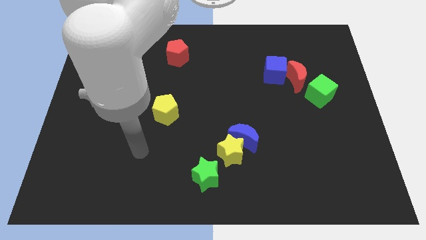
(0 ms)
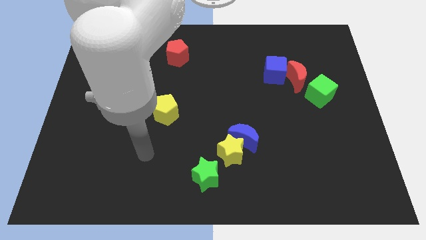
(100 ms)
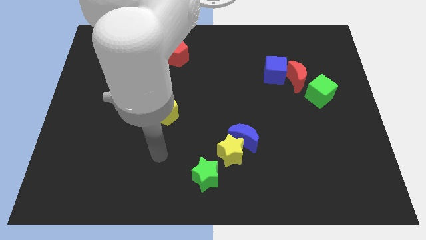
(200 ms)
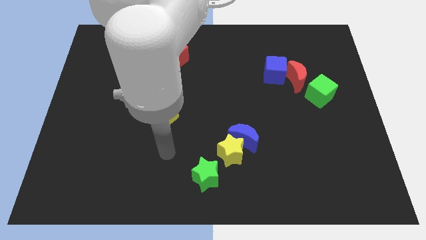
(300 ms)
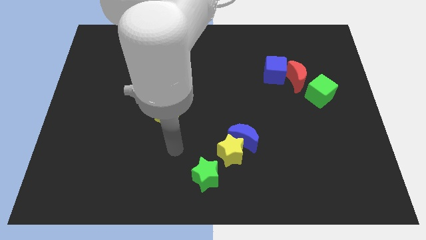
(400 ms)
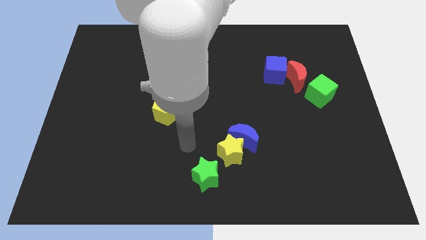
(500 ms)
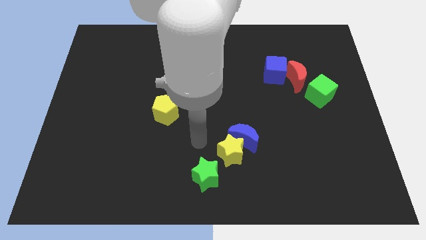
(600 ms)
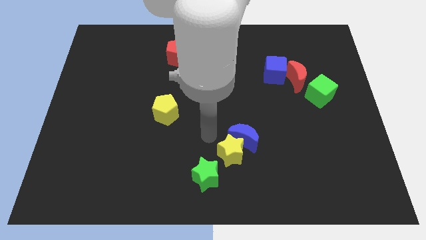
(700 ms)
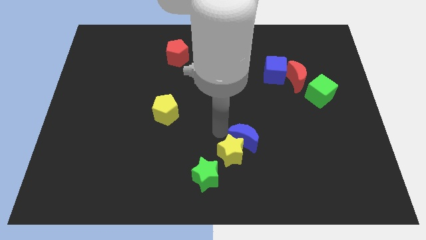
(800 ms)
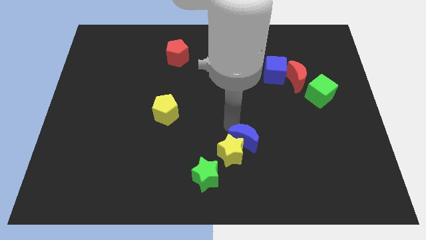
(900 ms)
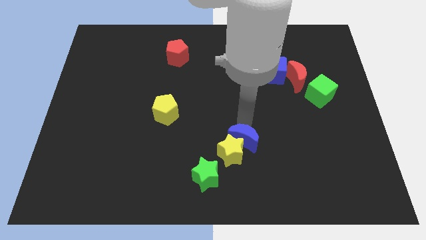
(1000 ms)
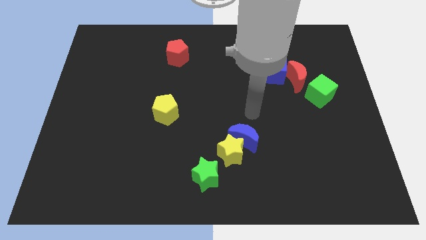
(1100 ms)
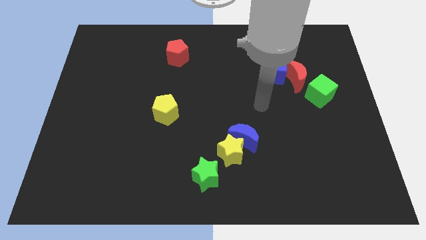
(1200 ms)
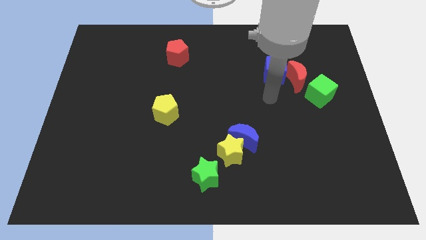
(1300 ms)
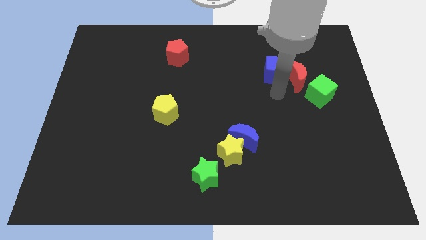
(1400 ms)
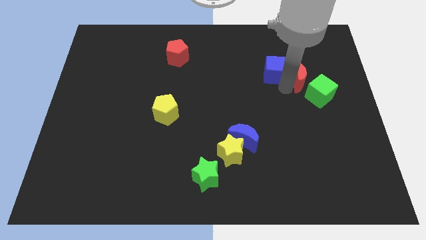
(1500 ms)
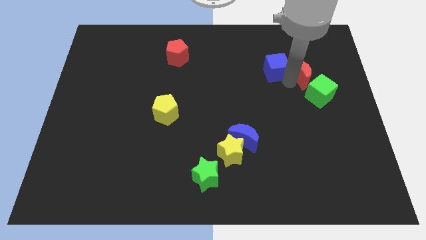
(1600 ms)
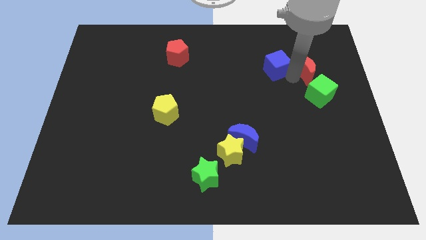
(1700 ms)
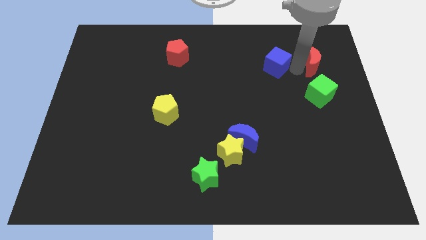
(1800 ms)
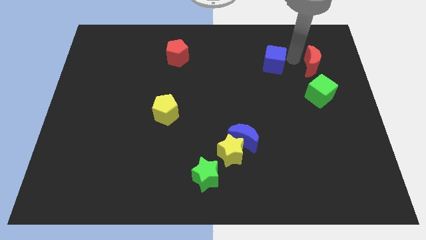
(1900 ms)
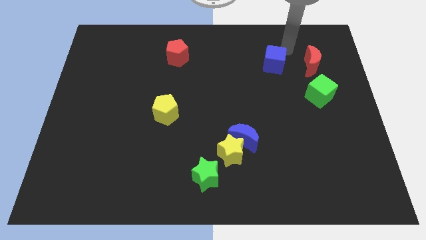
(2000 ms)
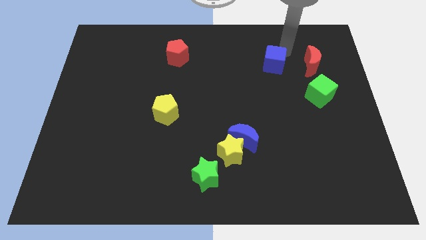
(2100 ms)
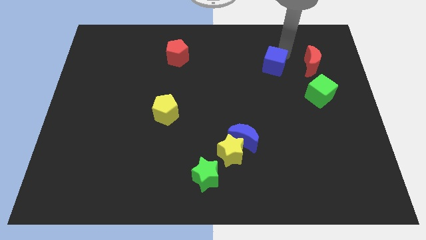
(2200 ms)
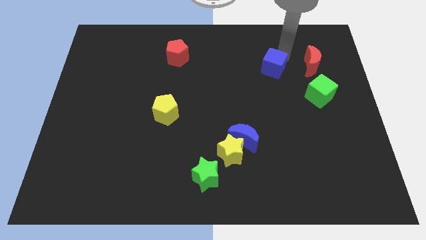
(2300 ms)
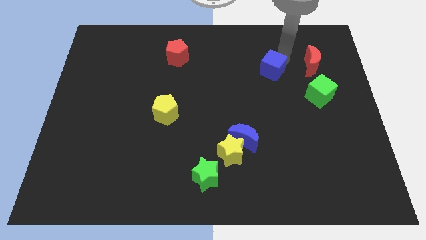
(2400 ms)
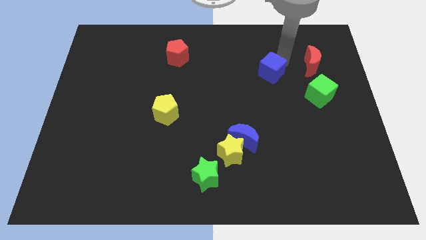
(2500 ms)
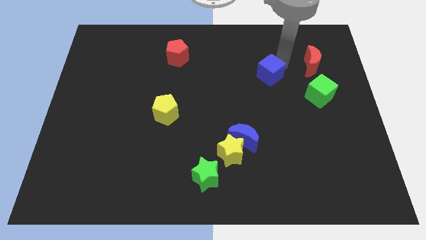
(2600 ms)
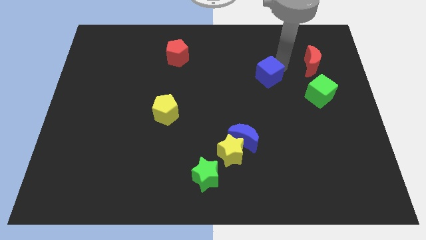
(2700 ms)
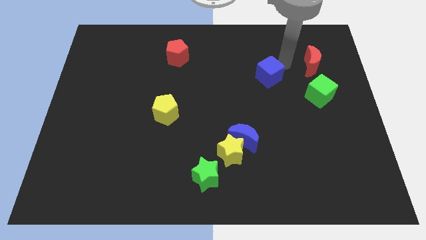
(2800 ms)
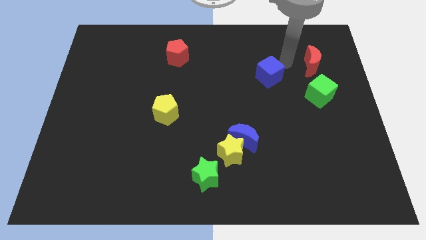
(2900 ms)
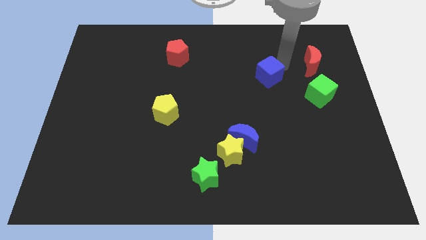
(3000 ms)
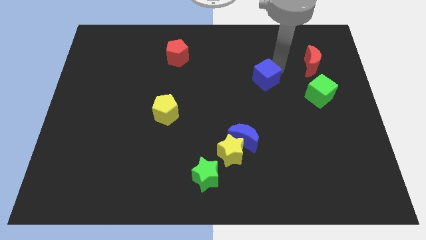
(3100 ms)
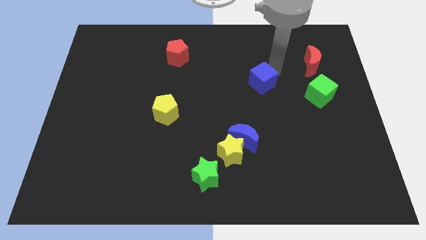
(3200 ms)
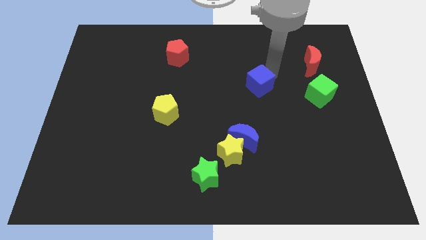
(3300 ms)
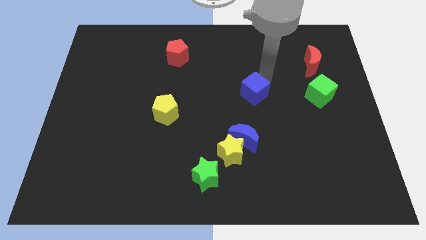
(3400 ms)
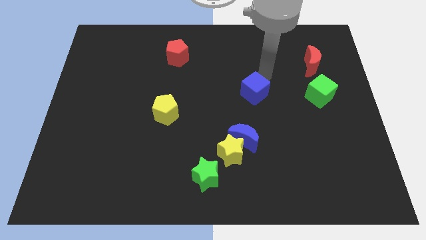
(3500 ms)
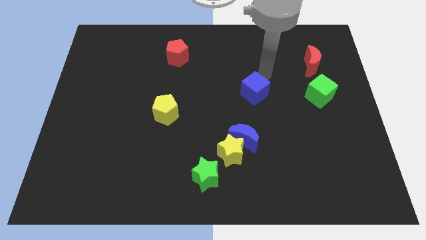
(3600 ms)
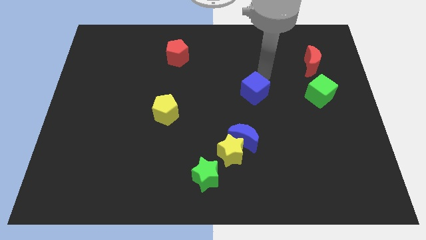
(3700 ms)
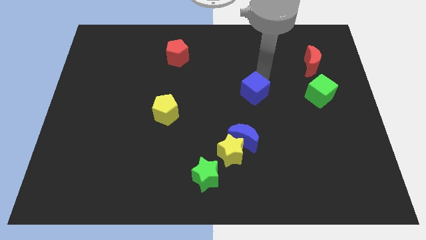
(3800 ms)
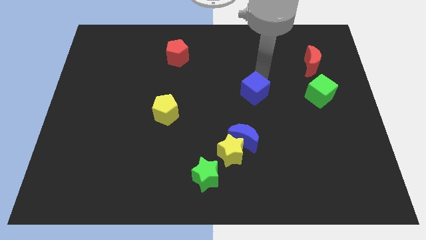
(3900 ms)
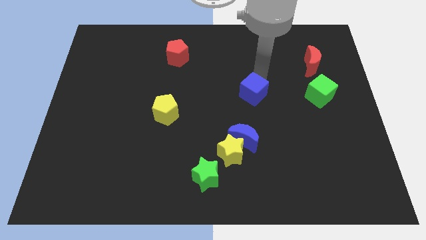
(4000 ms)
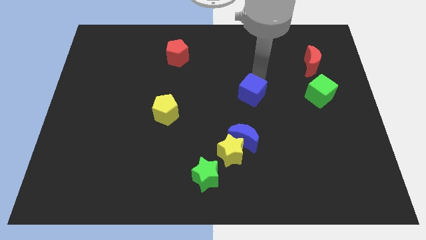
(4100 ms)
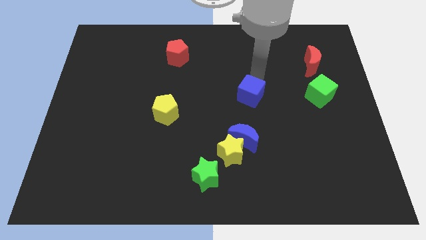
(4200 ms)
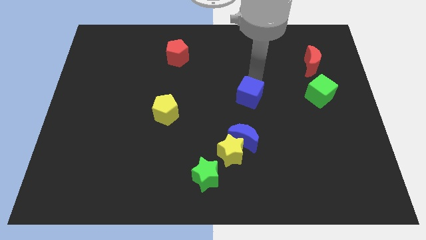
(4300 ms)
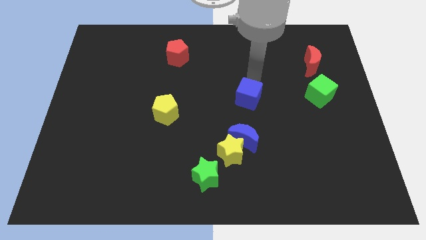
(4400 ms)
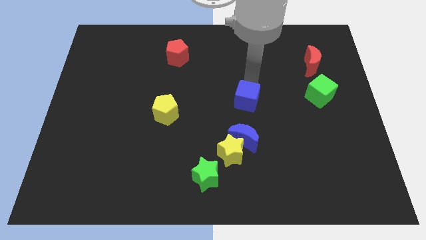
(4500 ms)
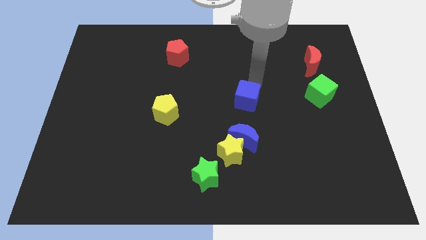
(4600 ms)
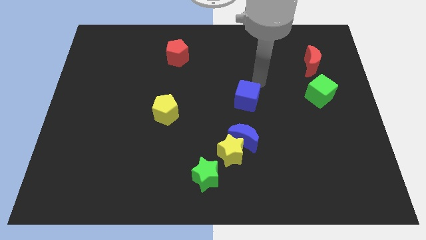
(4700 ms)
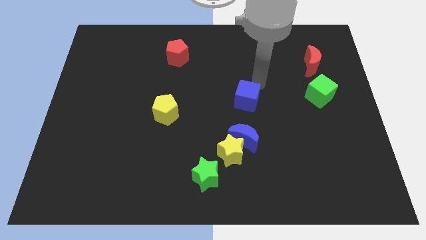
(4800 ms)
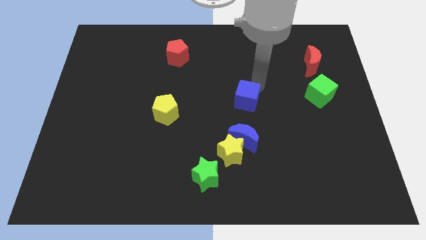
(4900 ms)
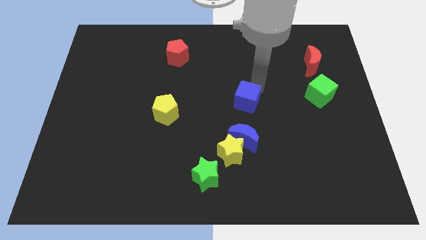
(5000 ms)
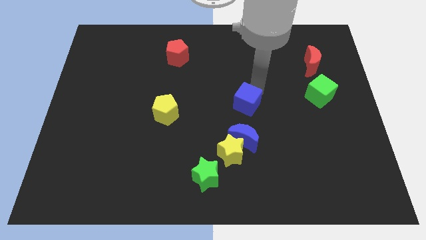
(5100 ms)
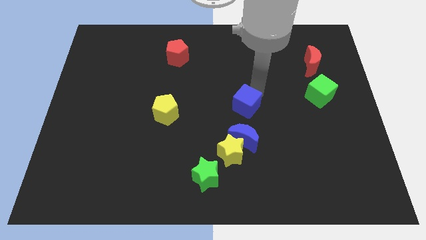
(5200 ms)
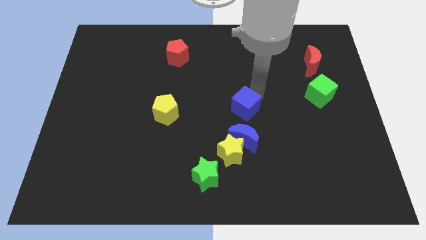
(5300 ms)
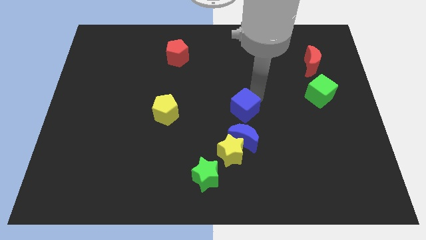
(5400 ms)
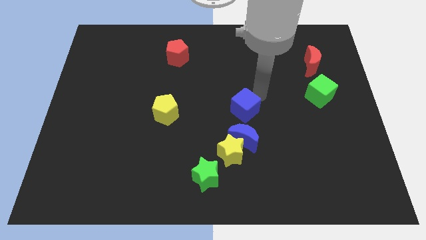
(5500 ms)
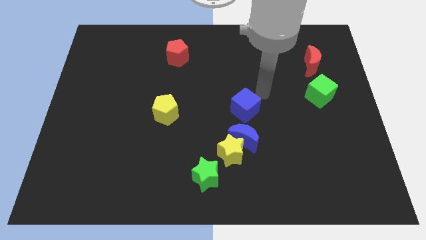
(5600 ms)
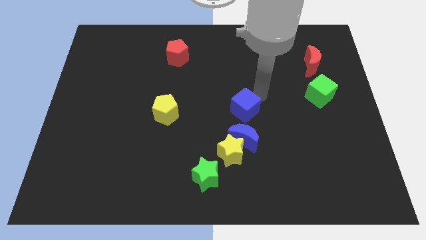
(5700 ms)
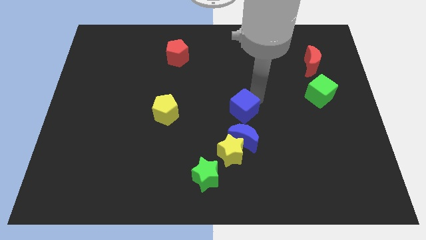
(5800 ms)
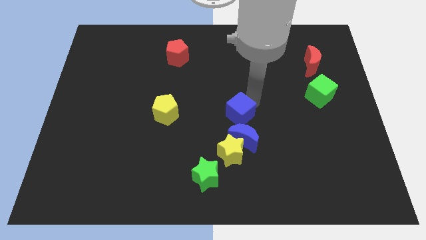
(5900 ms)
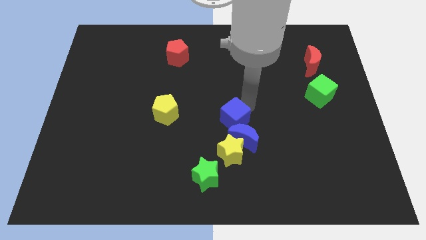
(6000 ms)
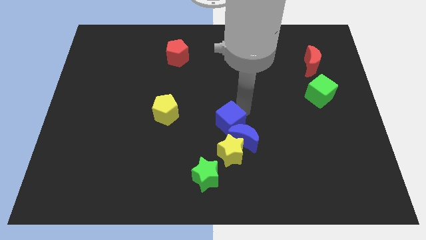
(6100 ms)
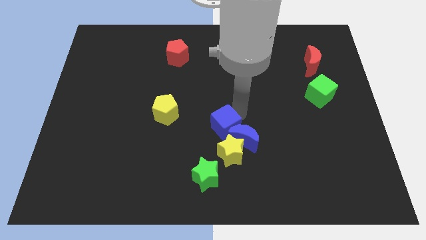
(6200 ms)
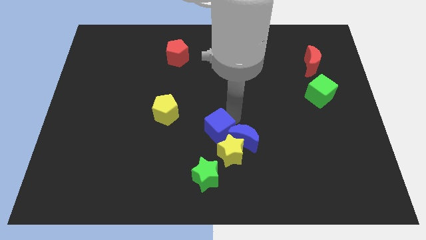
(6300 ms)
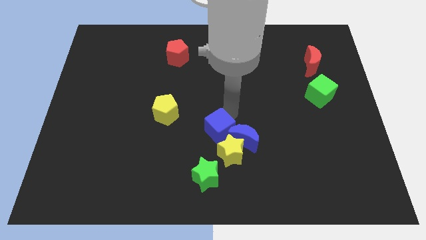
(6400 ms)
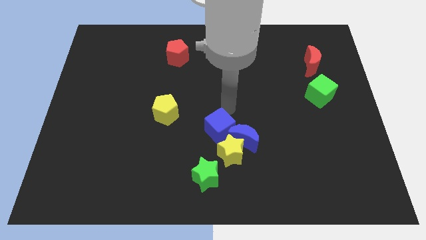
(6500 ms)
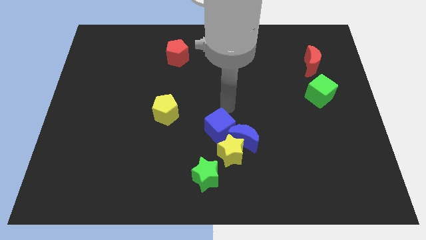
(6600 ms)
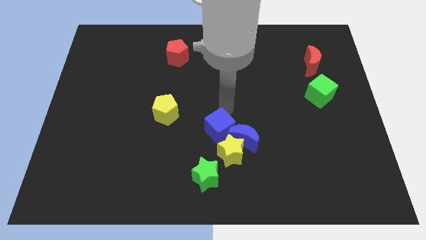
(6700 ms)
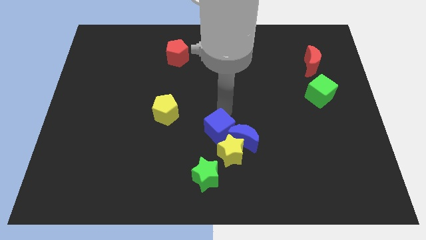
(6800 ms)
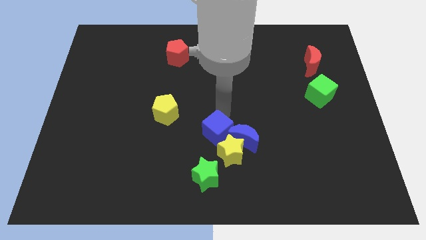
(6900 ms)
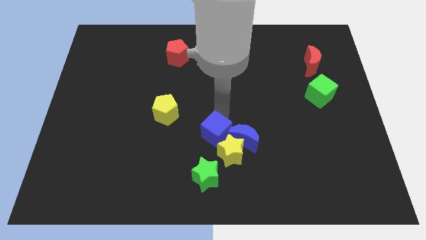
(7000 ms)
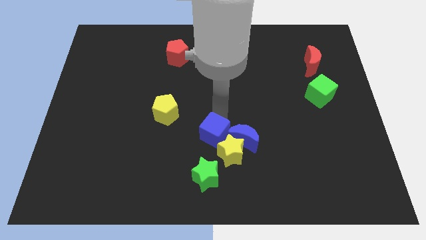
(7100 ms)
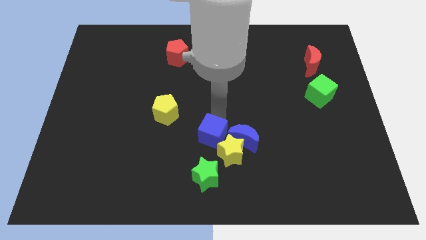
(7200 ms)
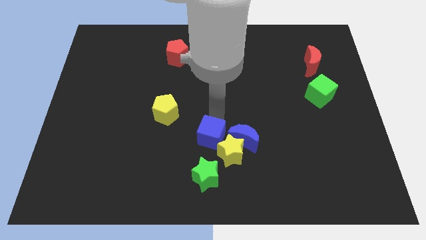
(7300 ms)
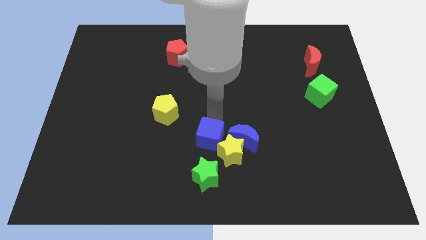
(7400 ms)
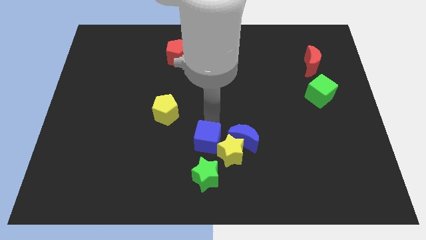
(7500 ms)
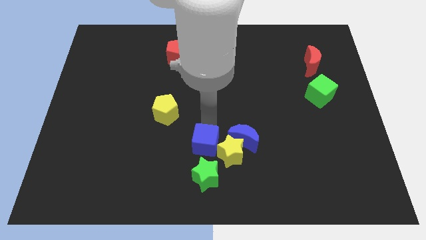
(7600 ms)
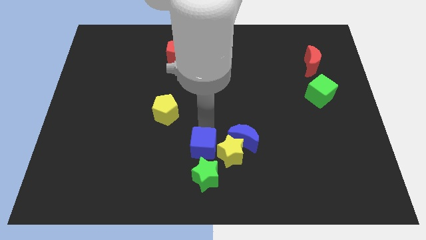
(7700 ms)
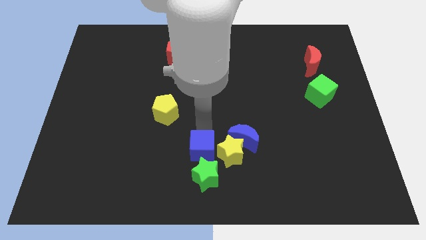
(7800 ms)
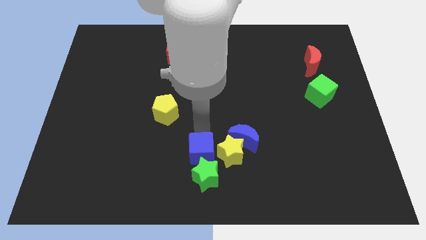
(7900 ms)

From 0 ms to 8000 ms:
move the blue cube towards the green star
